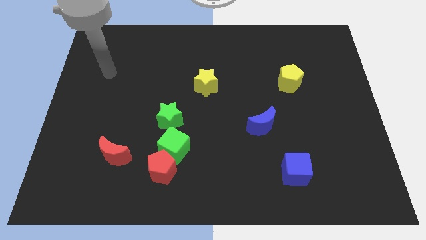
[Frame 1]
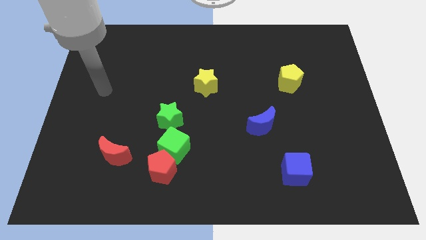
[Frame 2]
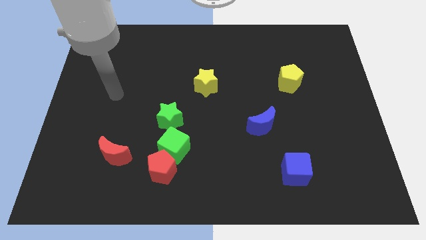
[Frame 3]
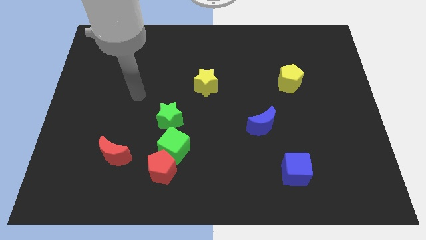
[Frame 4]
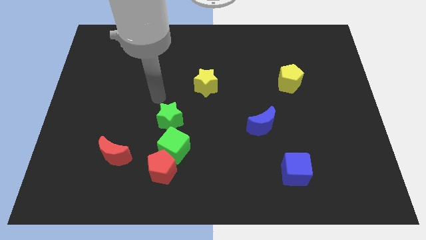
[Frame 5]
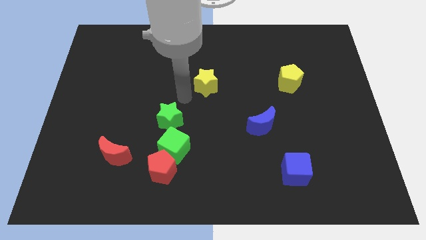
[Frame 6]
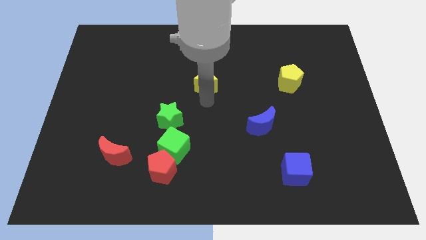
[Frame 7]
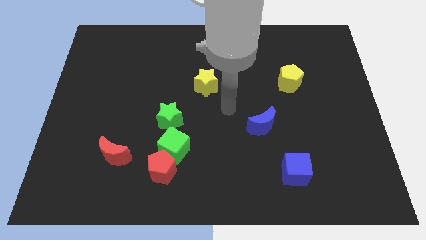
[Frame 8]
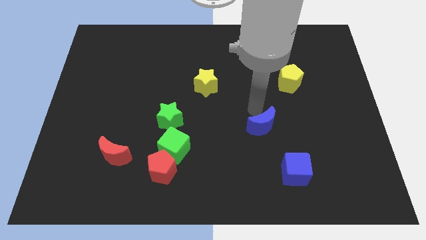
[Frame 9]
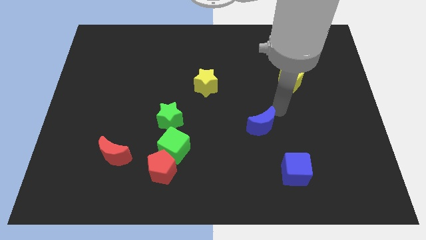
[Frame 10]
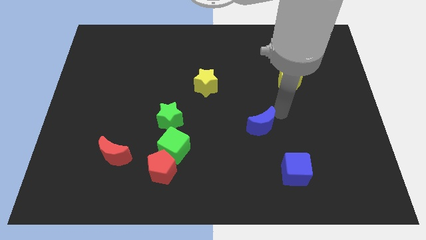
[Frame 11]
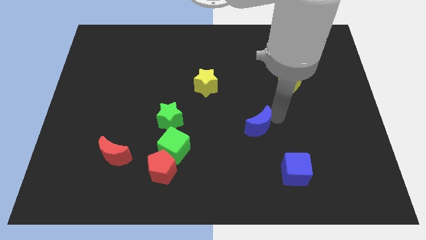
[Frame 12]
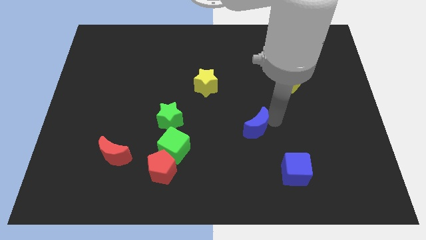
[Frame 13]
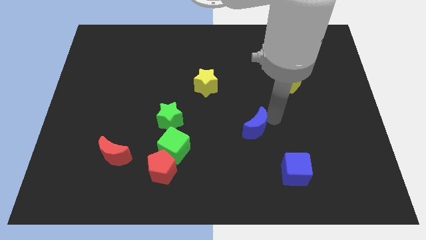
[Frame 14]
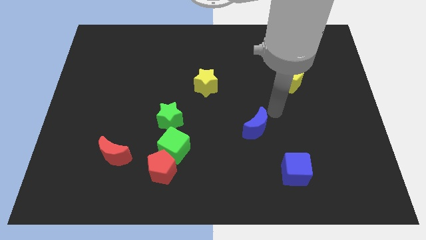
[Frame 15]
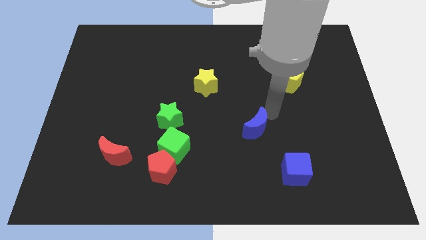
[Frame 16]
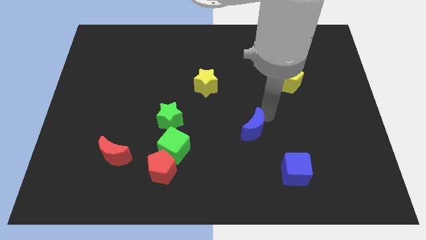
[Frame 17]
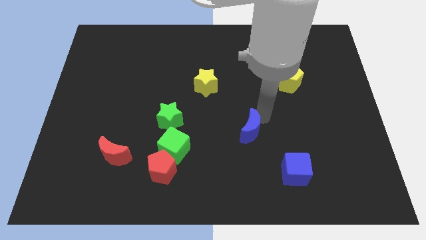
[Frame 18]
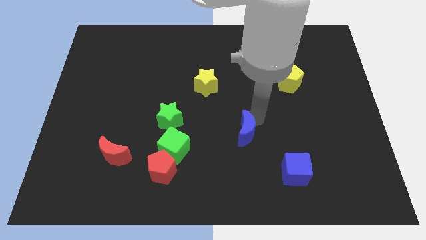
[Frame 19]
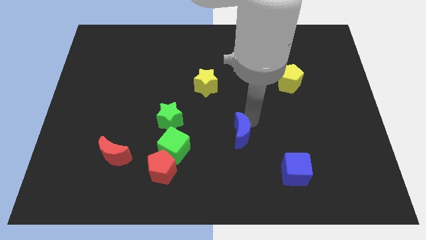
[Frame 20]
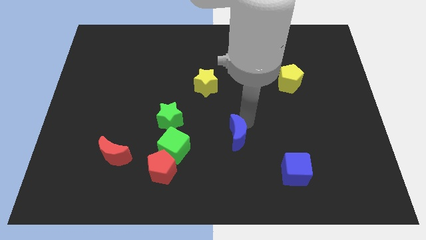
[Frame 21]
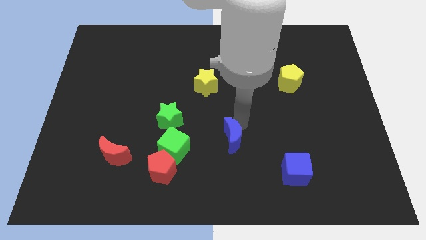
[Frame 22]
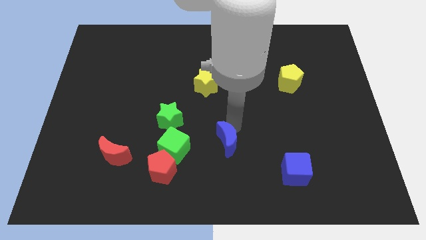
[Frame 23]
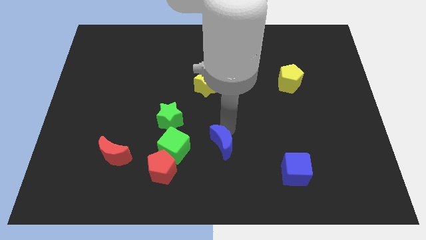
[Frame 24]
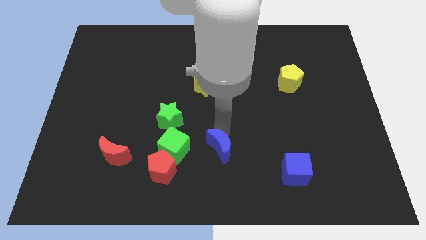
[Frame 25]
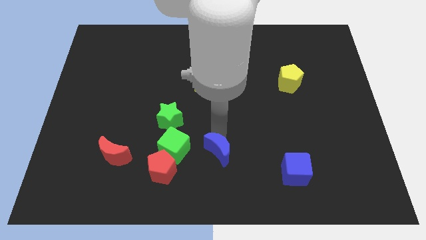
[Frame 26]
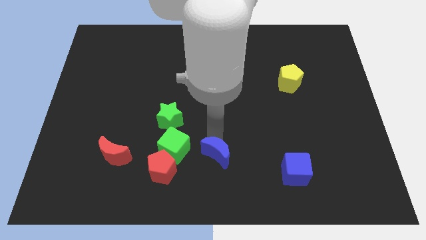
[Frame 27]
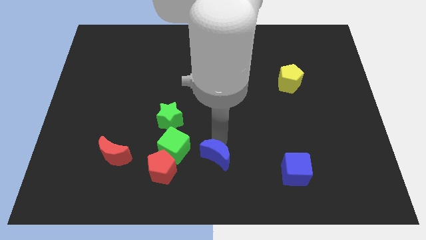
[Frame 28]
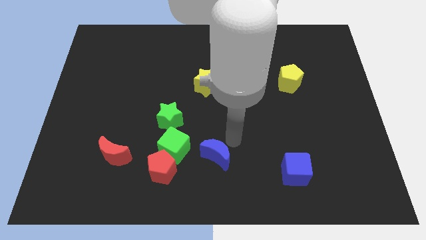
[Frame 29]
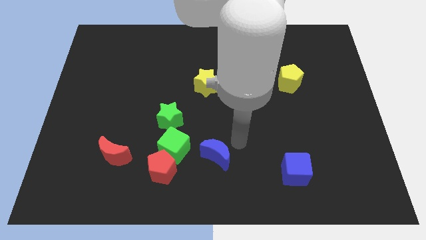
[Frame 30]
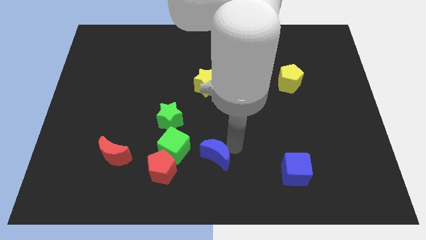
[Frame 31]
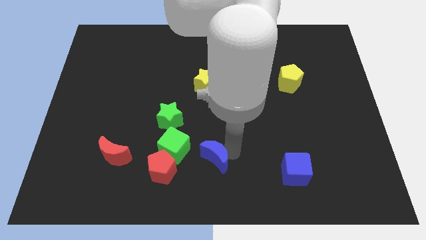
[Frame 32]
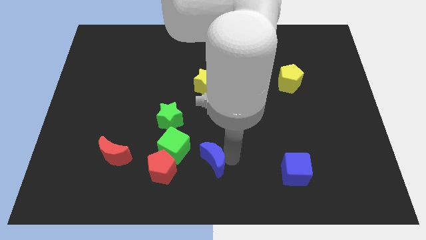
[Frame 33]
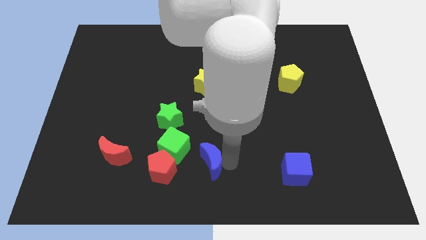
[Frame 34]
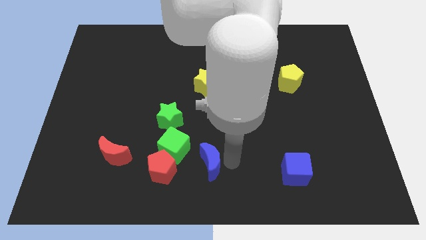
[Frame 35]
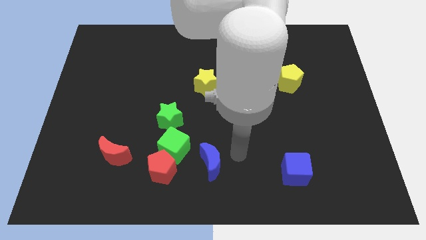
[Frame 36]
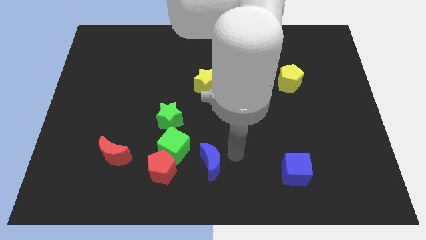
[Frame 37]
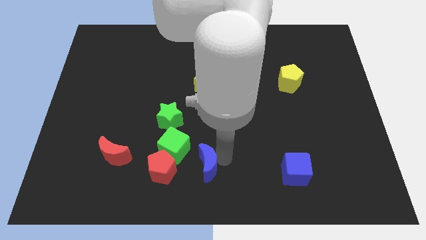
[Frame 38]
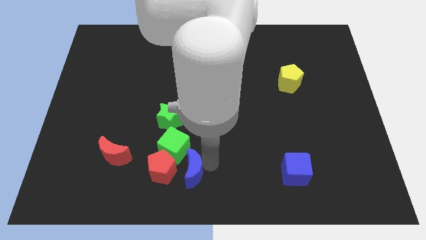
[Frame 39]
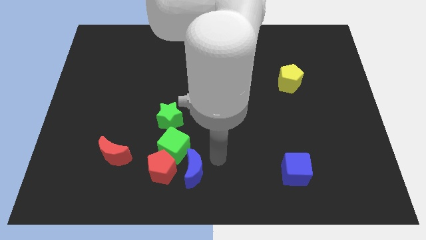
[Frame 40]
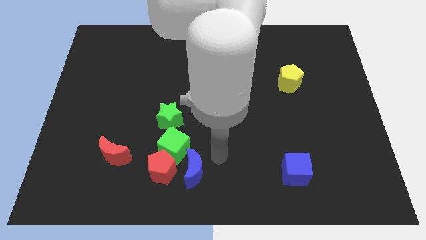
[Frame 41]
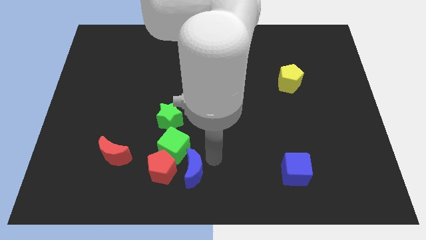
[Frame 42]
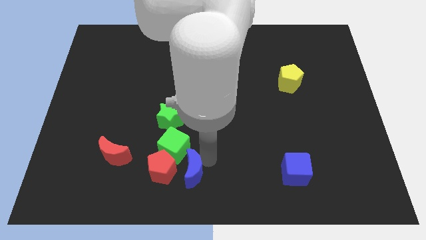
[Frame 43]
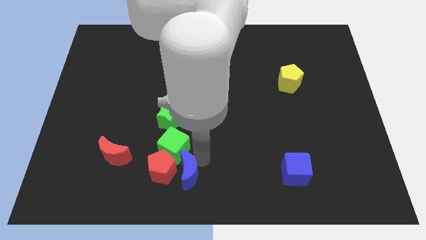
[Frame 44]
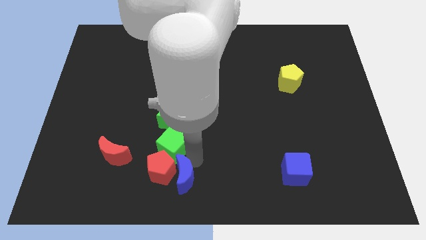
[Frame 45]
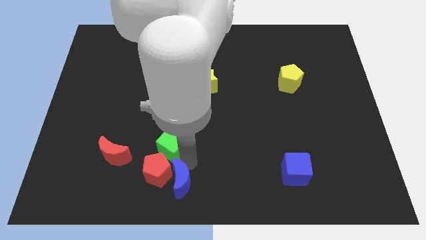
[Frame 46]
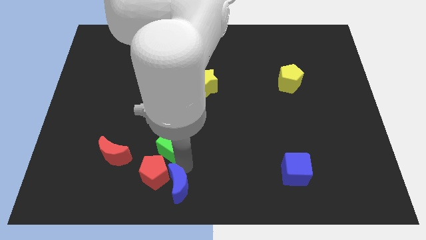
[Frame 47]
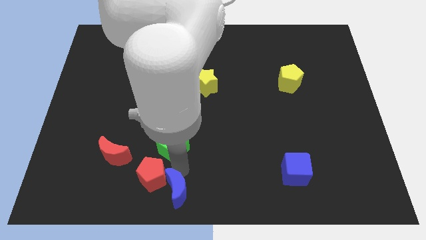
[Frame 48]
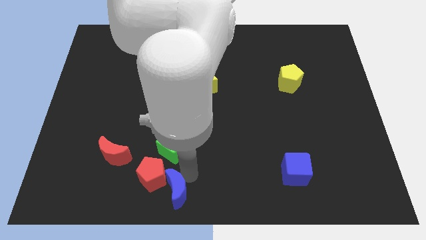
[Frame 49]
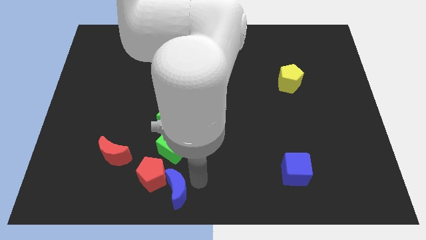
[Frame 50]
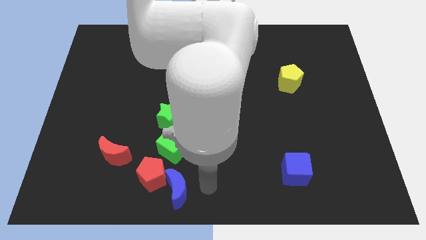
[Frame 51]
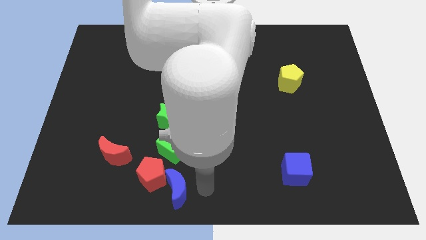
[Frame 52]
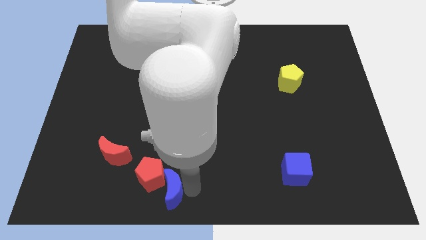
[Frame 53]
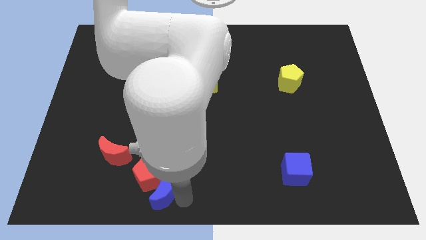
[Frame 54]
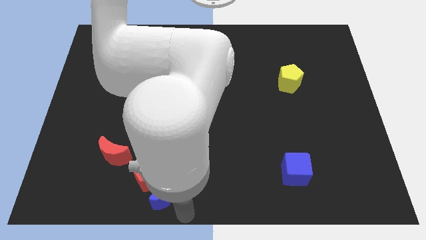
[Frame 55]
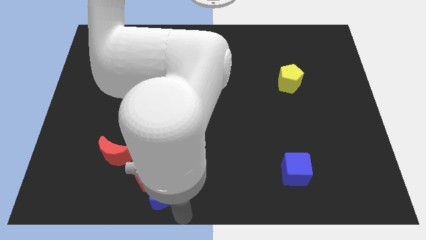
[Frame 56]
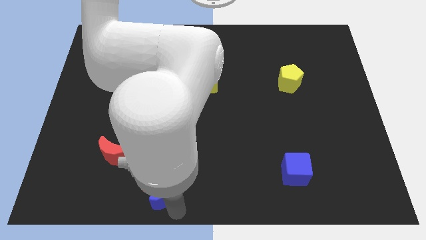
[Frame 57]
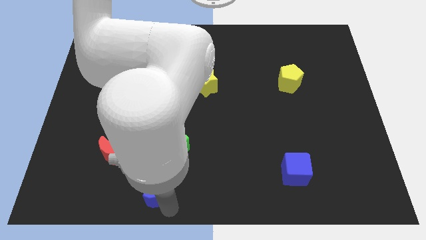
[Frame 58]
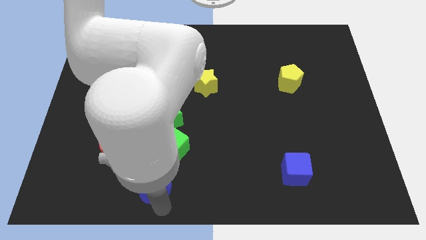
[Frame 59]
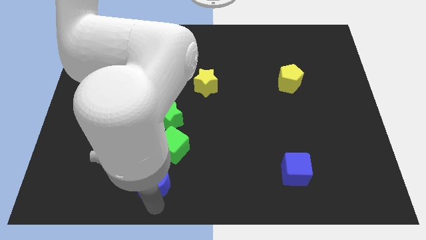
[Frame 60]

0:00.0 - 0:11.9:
slide the blue moon diagonally down and to the left of the green cube

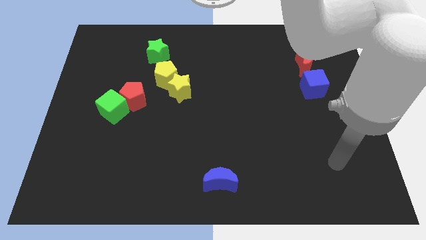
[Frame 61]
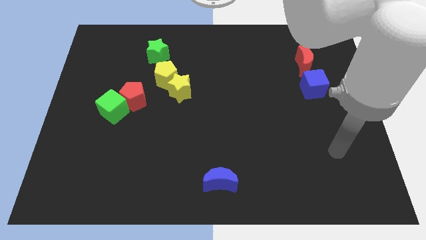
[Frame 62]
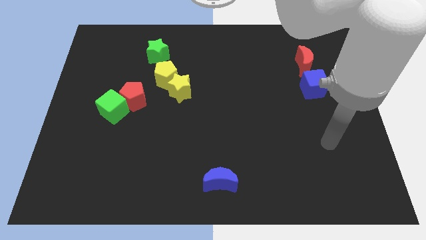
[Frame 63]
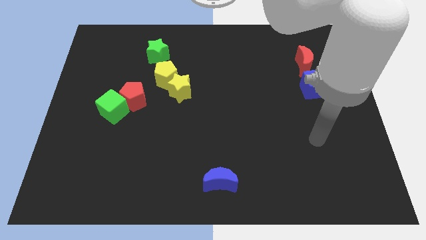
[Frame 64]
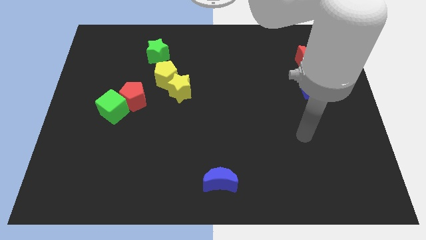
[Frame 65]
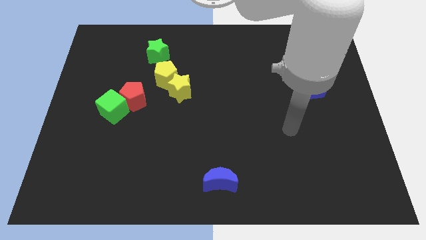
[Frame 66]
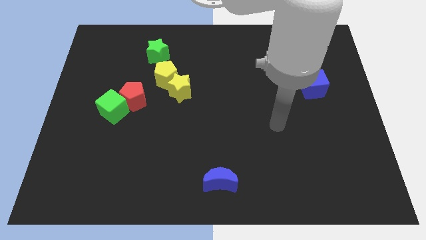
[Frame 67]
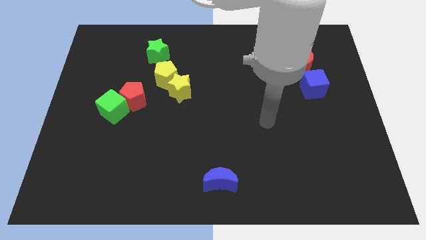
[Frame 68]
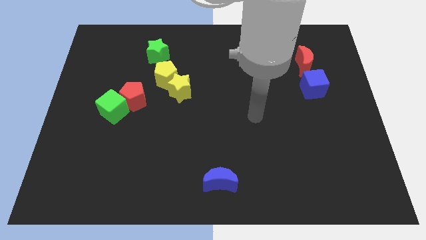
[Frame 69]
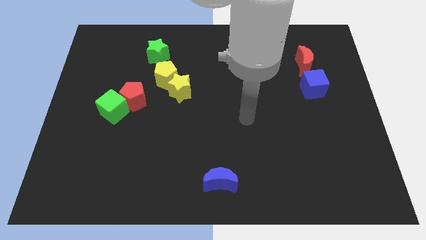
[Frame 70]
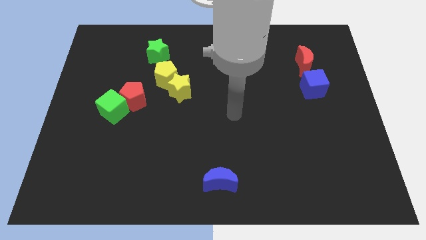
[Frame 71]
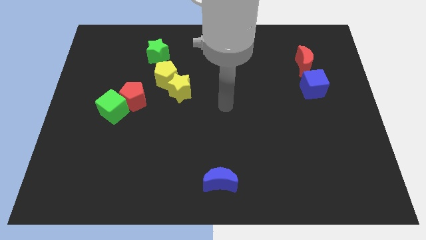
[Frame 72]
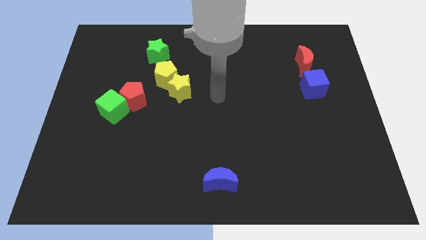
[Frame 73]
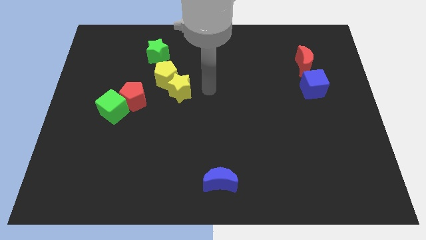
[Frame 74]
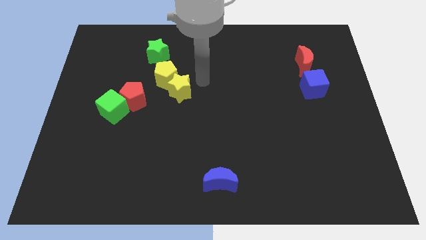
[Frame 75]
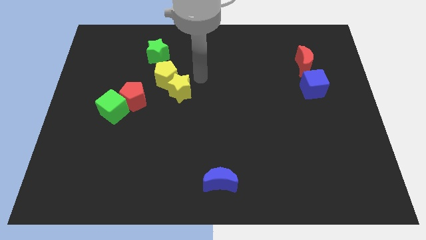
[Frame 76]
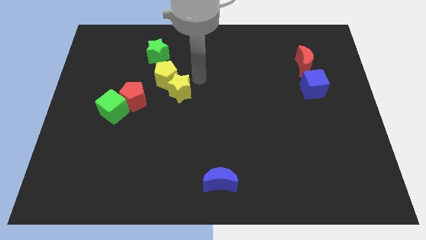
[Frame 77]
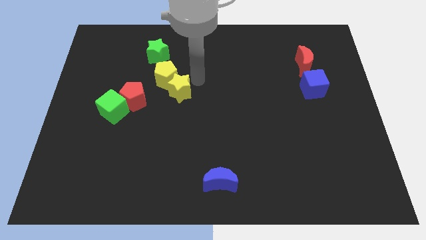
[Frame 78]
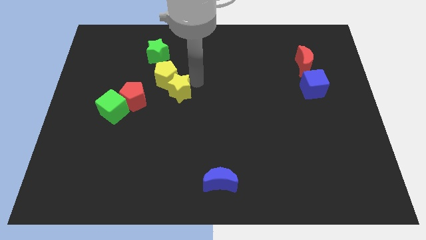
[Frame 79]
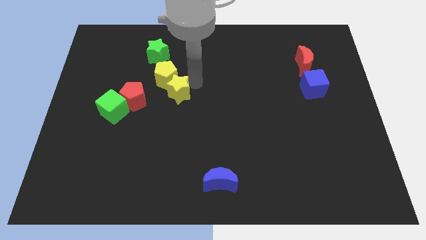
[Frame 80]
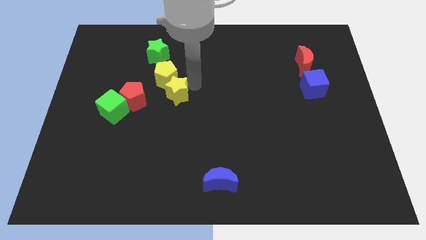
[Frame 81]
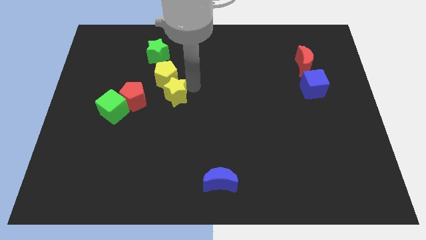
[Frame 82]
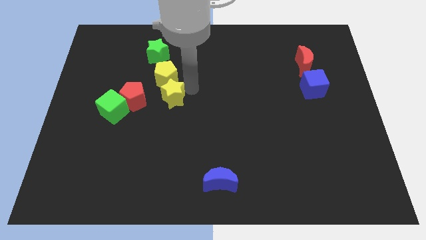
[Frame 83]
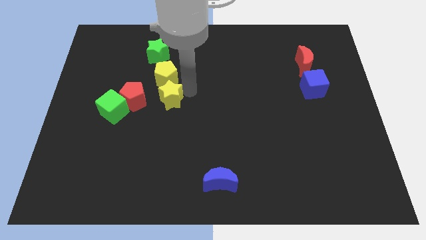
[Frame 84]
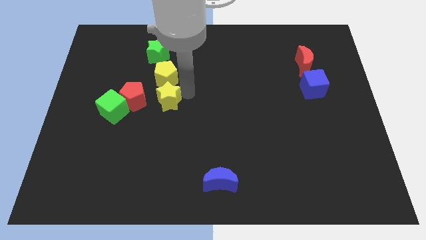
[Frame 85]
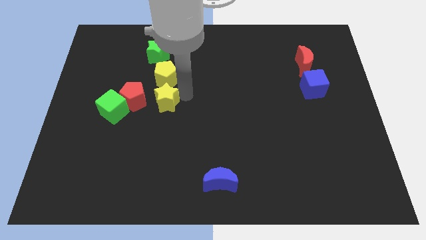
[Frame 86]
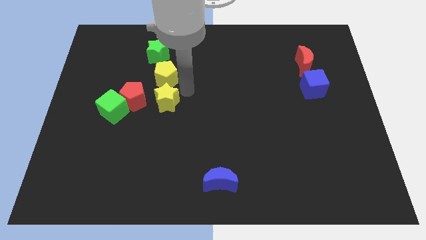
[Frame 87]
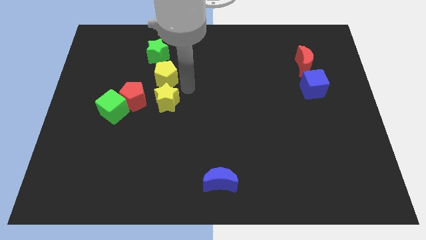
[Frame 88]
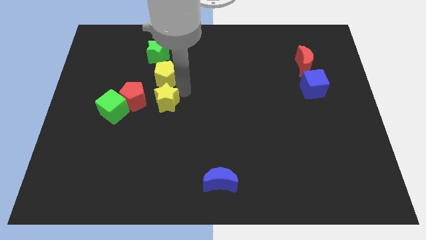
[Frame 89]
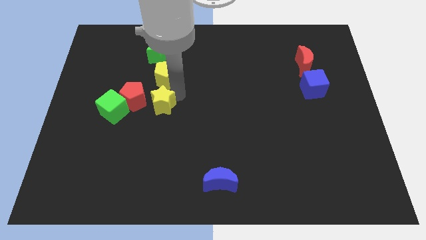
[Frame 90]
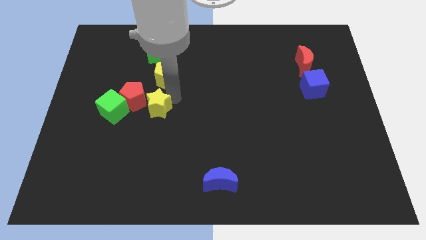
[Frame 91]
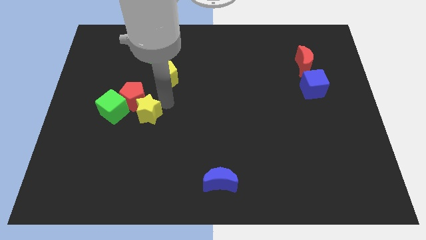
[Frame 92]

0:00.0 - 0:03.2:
push the yellow star to the bottom side of the red pentagon
